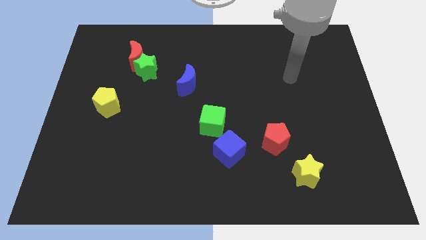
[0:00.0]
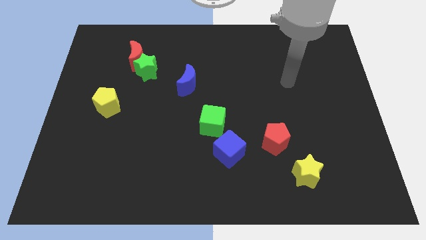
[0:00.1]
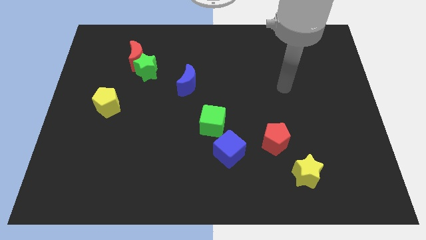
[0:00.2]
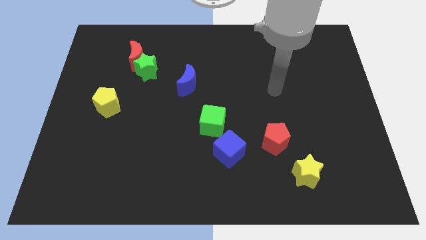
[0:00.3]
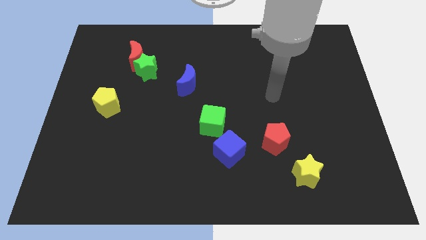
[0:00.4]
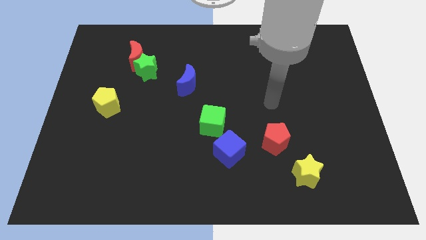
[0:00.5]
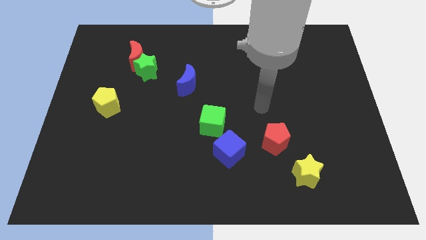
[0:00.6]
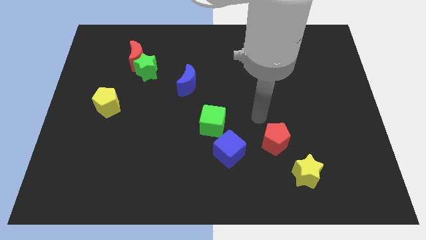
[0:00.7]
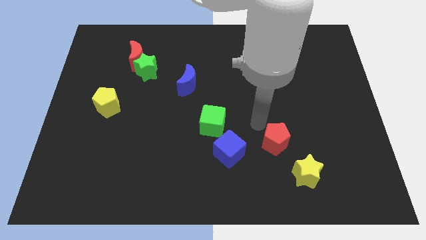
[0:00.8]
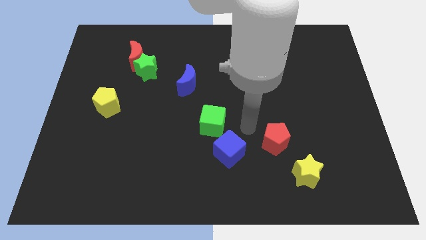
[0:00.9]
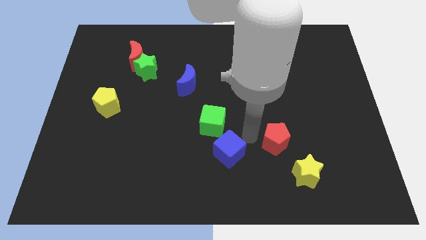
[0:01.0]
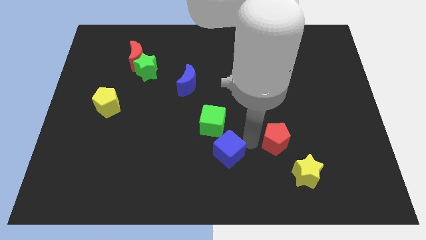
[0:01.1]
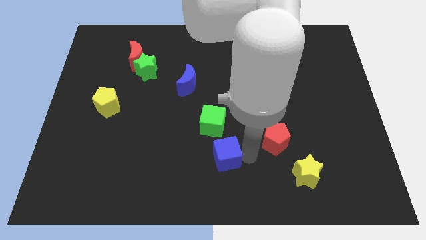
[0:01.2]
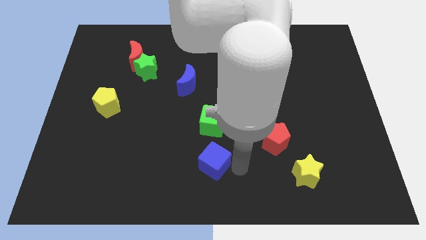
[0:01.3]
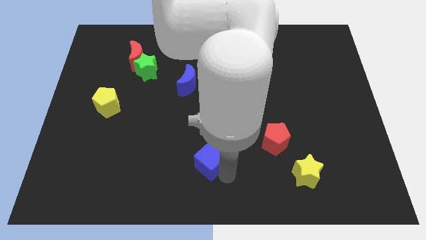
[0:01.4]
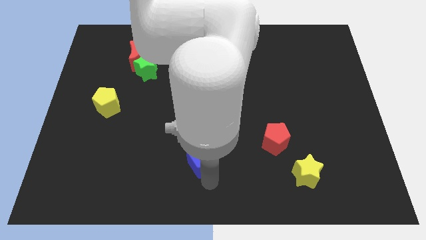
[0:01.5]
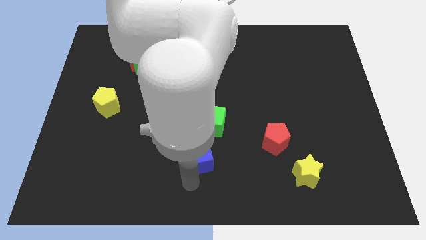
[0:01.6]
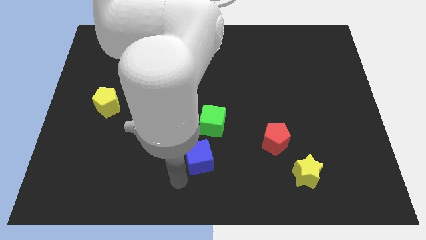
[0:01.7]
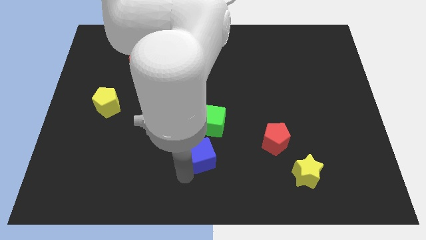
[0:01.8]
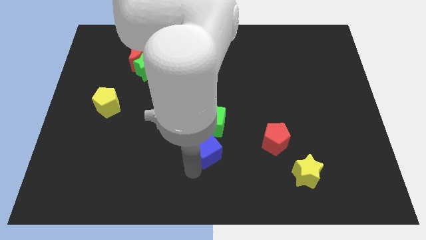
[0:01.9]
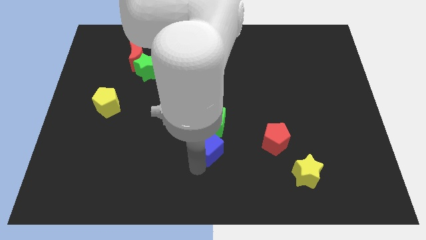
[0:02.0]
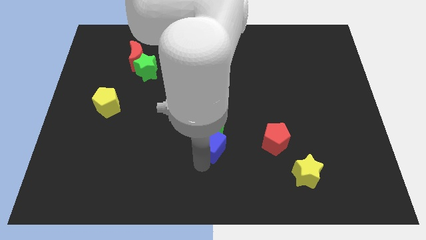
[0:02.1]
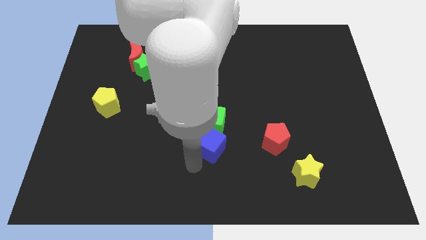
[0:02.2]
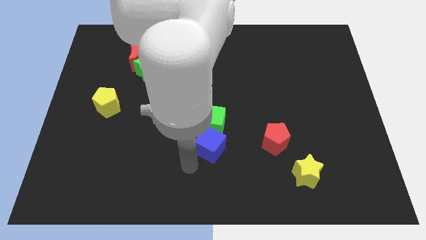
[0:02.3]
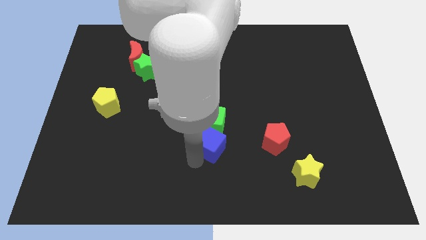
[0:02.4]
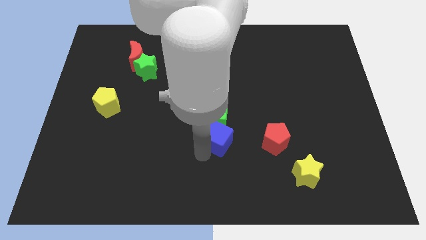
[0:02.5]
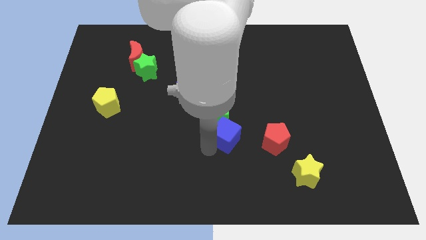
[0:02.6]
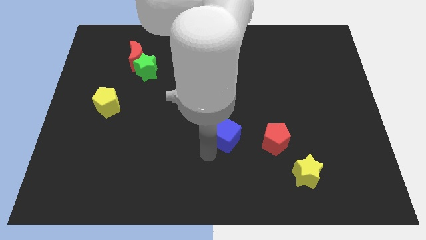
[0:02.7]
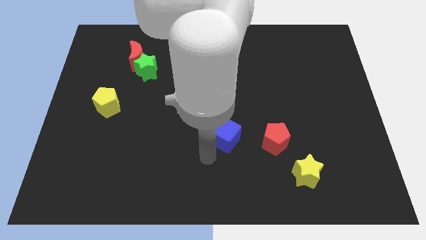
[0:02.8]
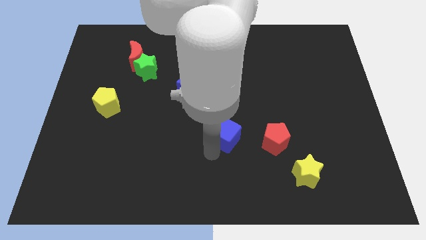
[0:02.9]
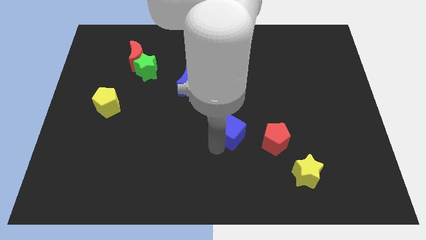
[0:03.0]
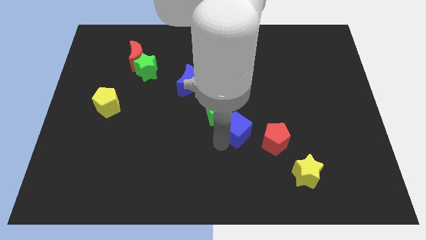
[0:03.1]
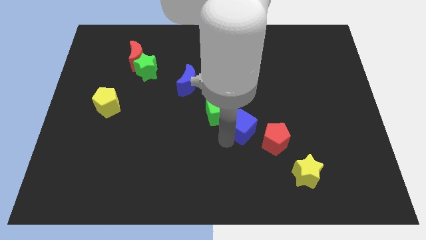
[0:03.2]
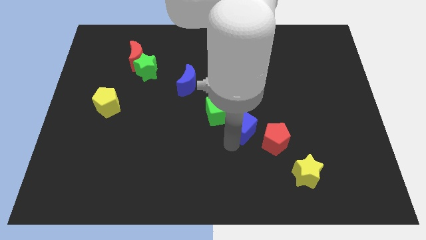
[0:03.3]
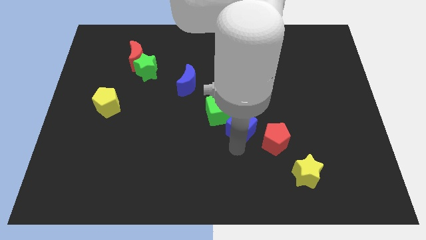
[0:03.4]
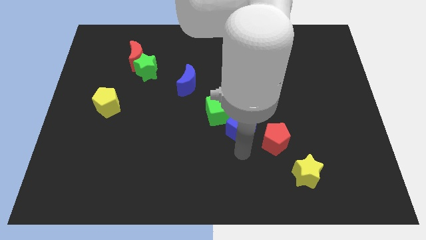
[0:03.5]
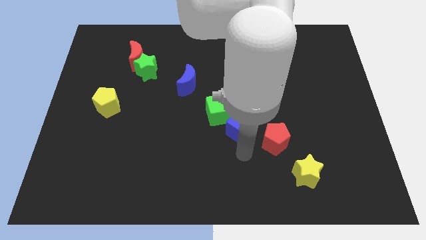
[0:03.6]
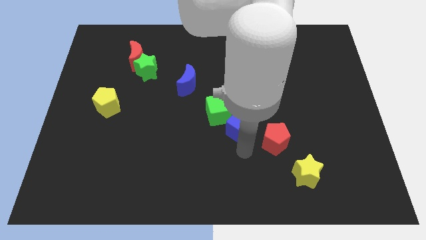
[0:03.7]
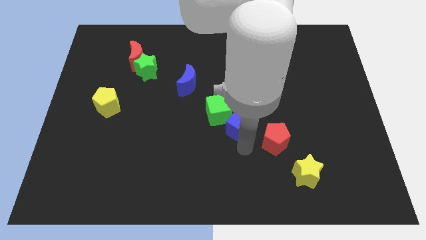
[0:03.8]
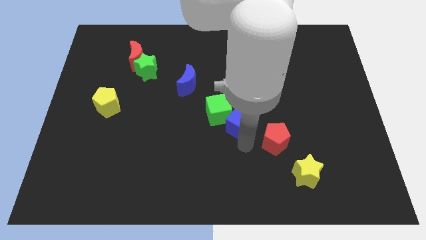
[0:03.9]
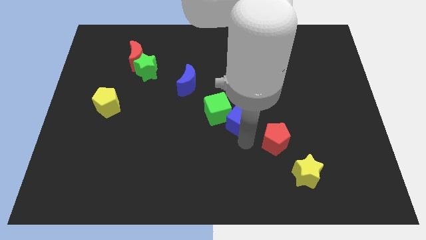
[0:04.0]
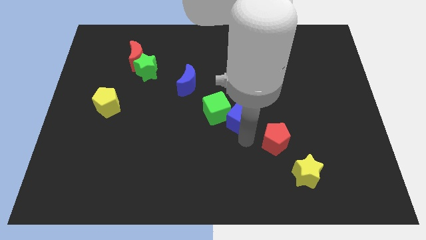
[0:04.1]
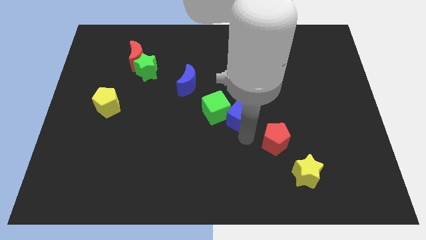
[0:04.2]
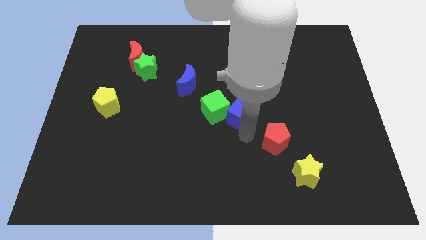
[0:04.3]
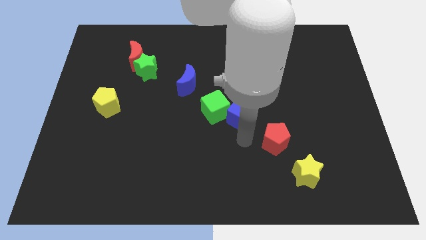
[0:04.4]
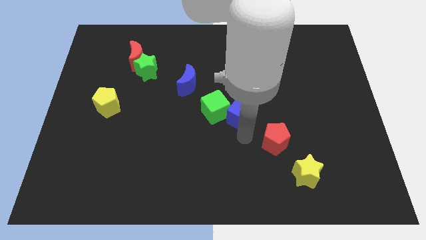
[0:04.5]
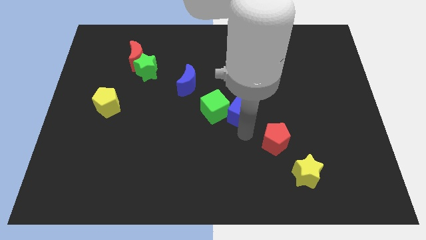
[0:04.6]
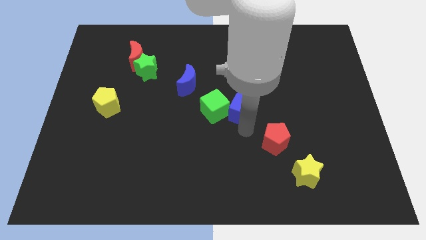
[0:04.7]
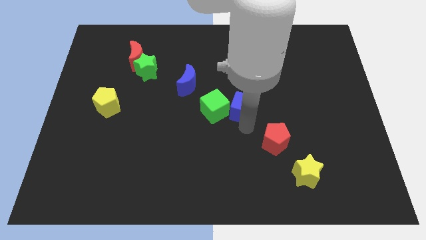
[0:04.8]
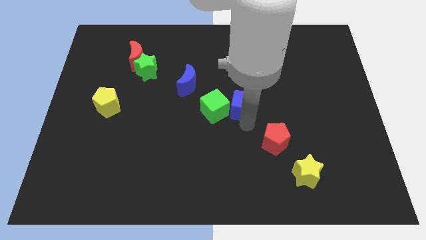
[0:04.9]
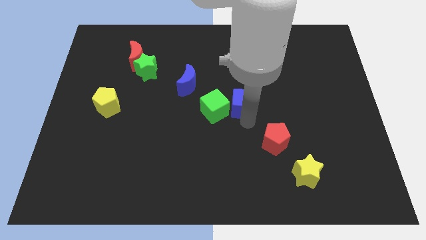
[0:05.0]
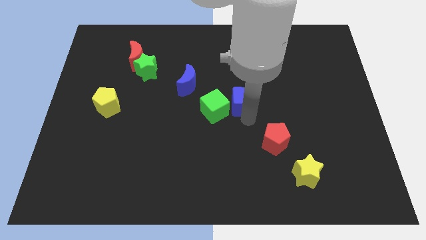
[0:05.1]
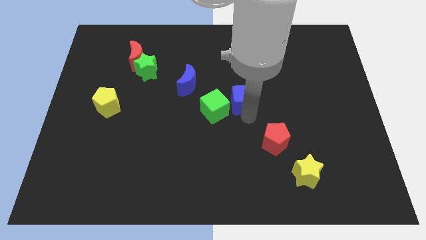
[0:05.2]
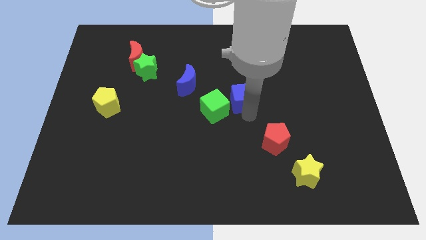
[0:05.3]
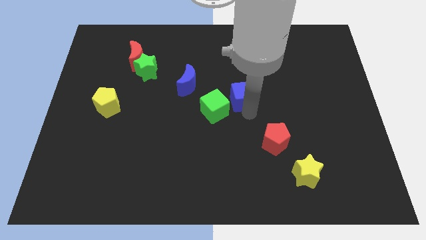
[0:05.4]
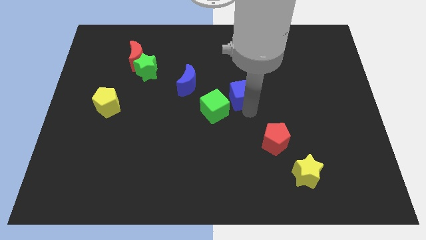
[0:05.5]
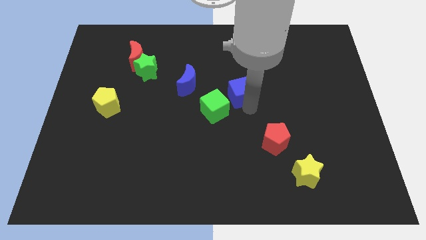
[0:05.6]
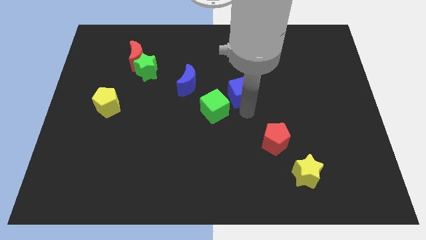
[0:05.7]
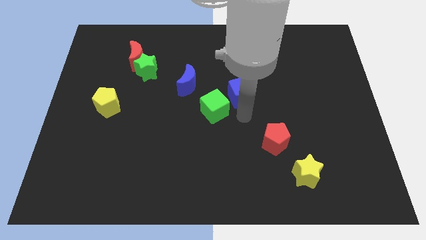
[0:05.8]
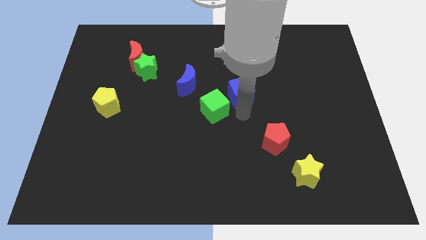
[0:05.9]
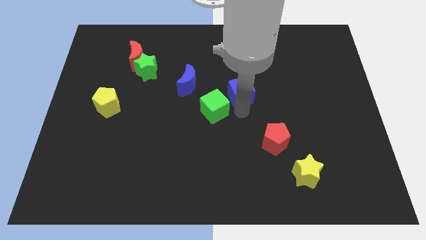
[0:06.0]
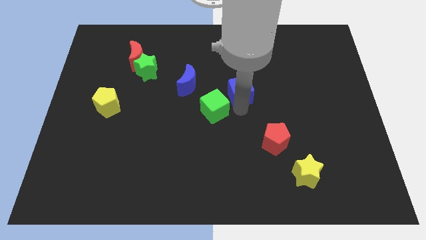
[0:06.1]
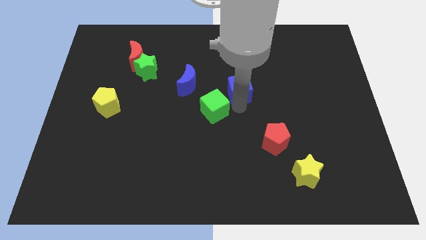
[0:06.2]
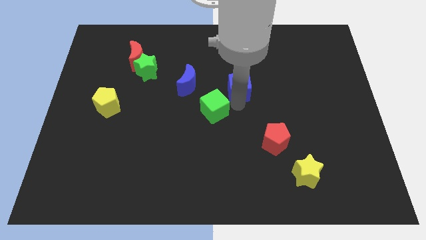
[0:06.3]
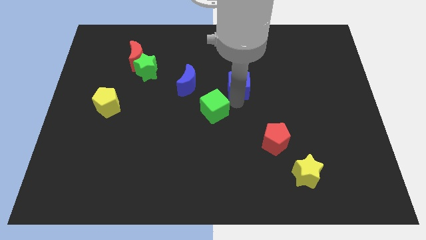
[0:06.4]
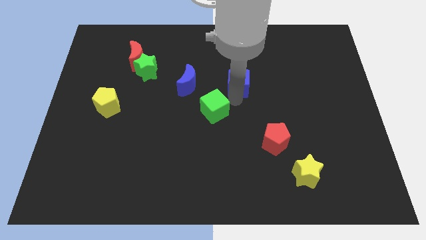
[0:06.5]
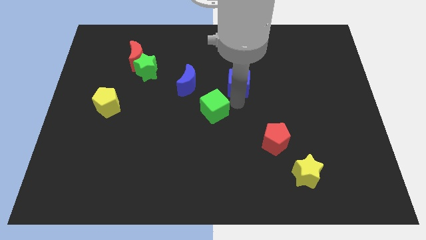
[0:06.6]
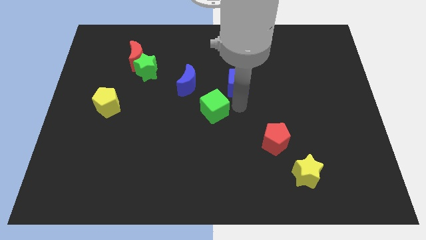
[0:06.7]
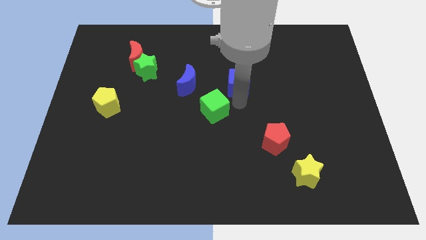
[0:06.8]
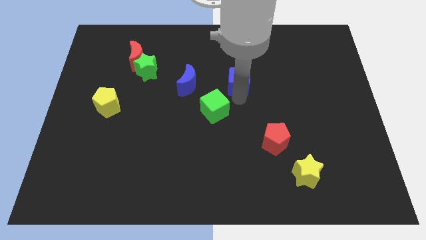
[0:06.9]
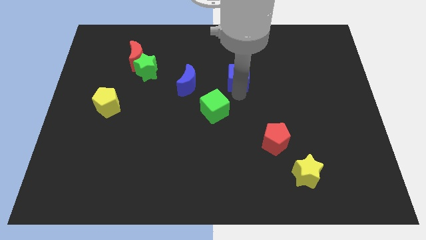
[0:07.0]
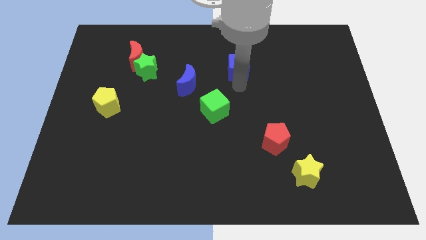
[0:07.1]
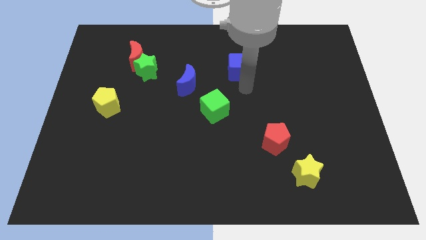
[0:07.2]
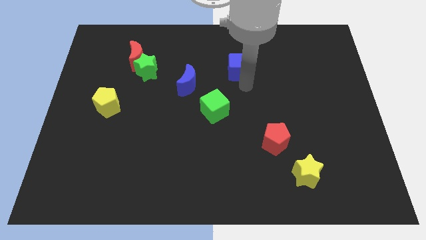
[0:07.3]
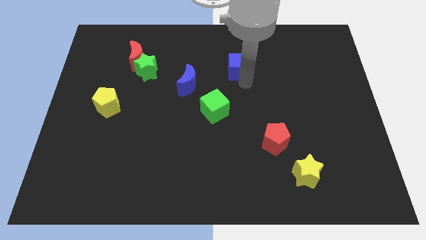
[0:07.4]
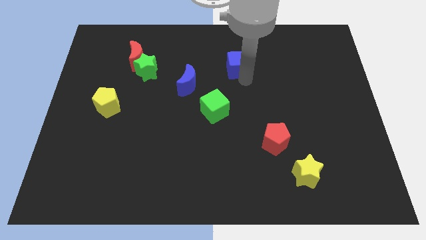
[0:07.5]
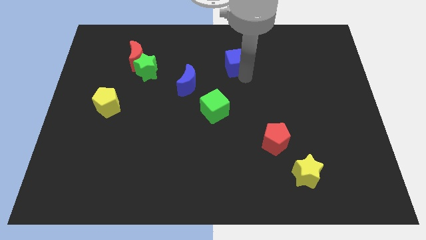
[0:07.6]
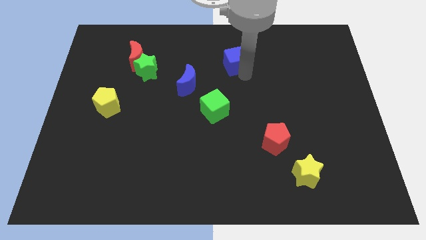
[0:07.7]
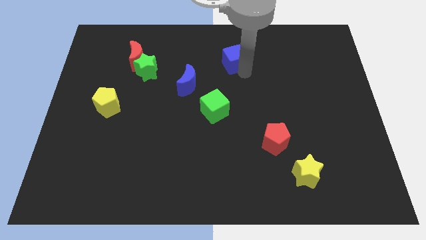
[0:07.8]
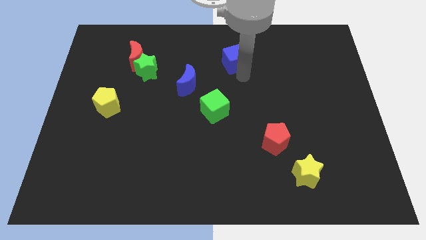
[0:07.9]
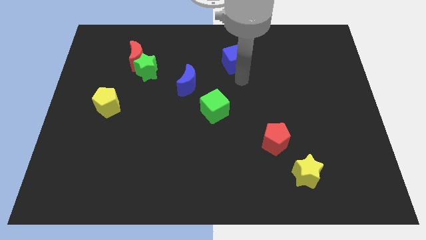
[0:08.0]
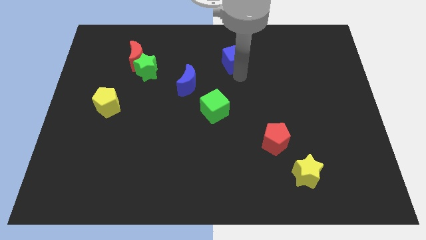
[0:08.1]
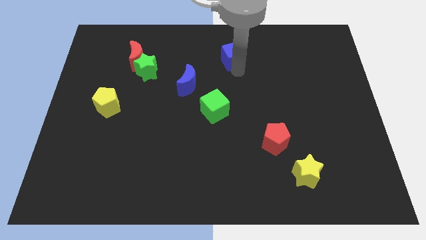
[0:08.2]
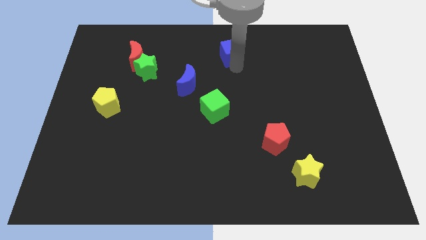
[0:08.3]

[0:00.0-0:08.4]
move the blue cube to the top
